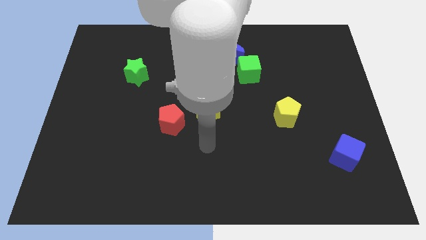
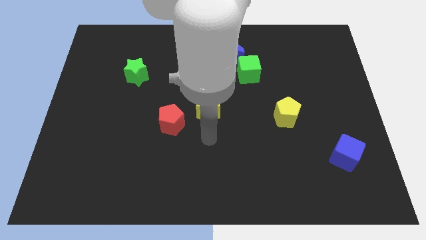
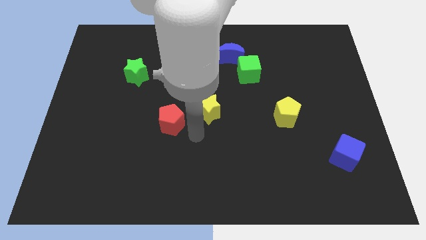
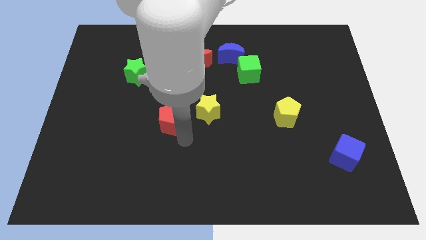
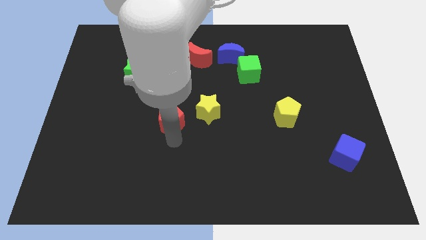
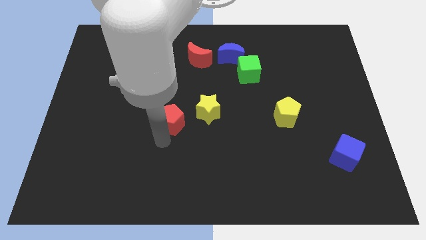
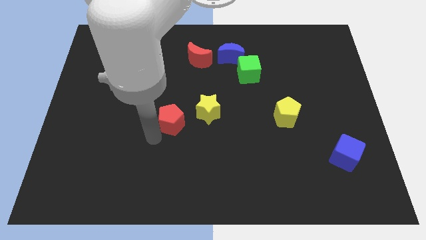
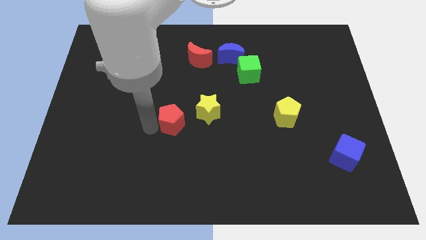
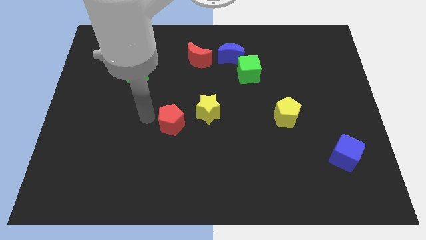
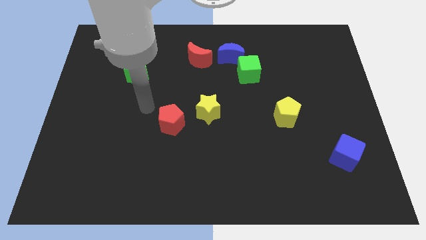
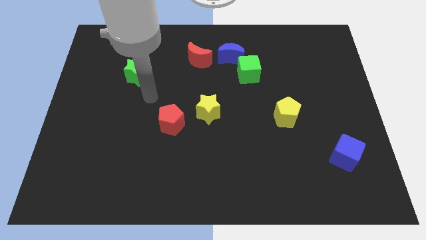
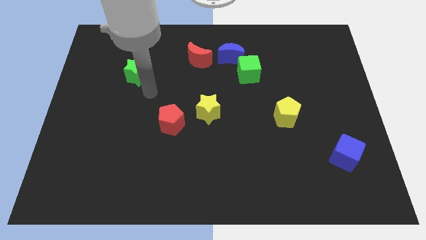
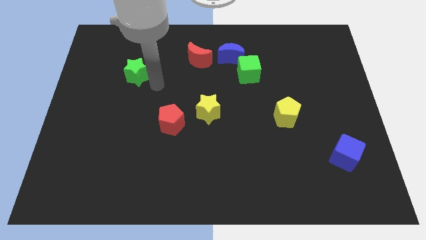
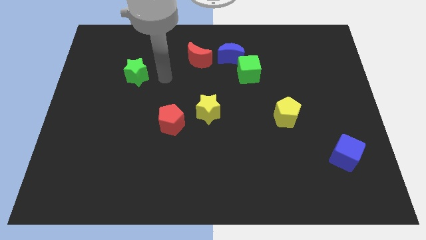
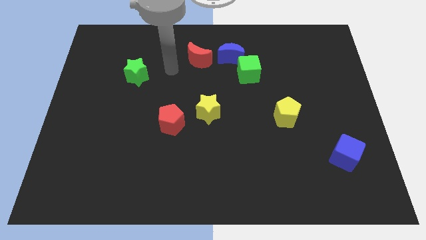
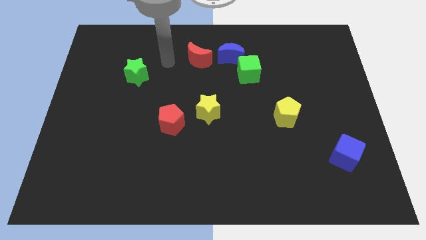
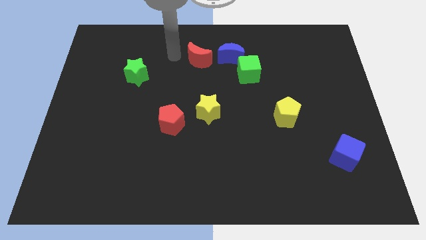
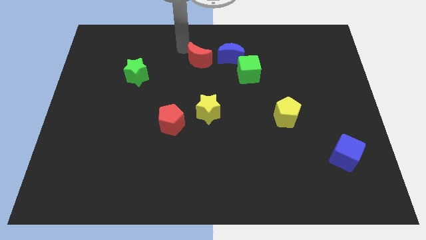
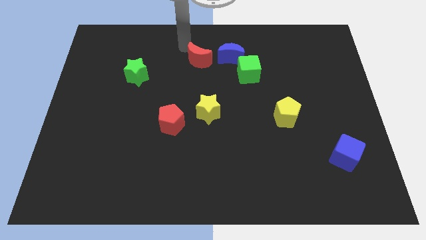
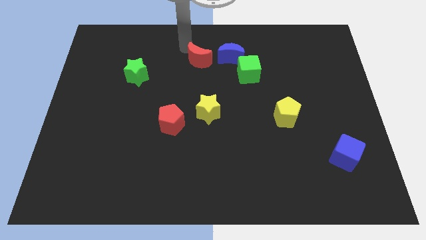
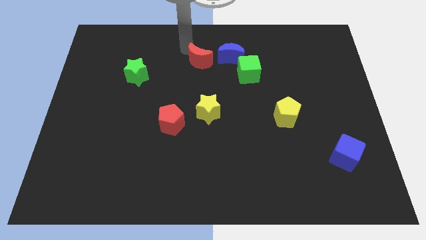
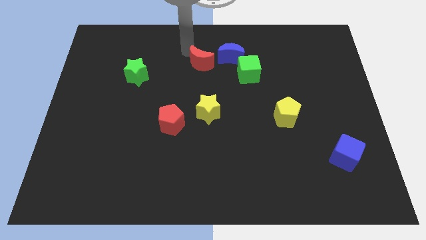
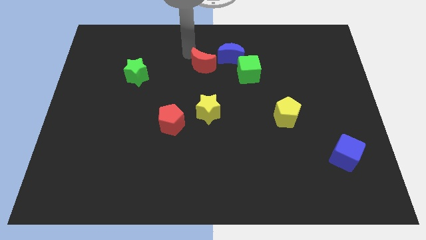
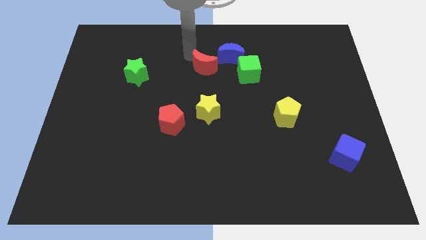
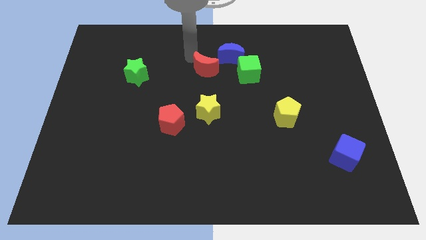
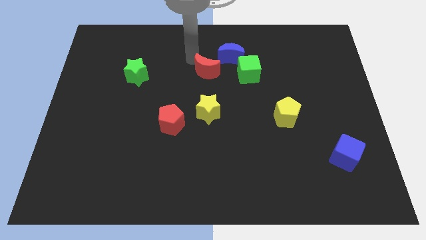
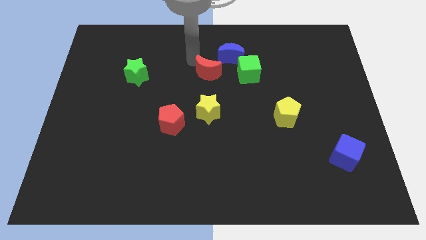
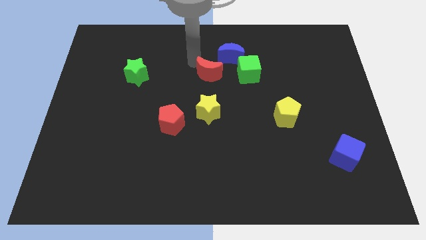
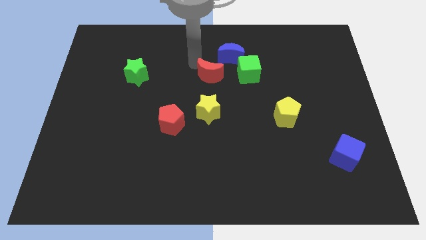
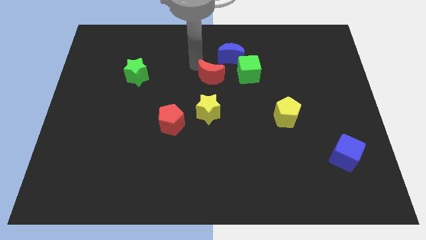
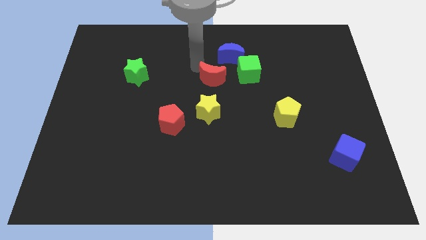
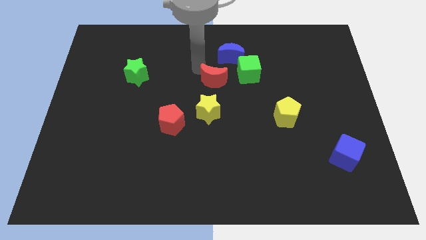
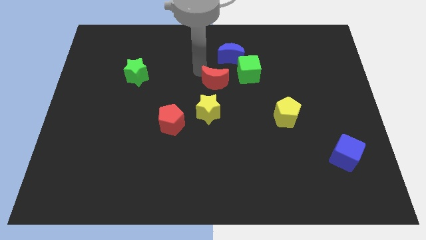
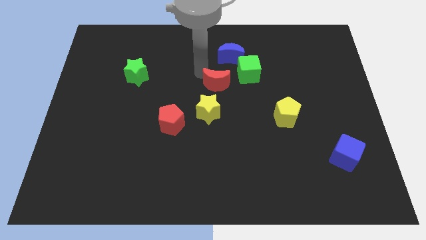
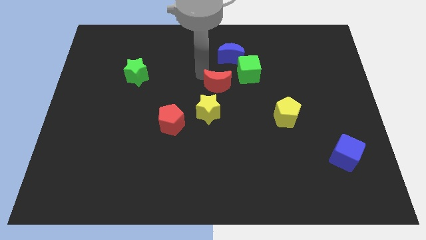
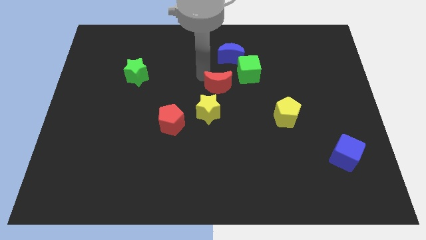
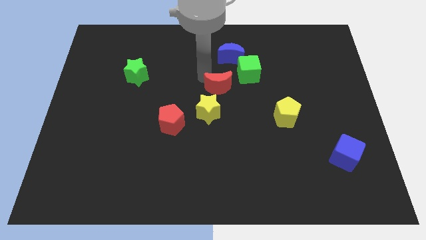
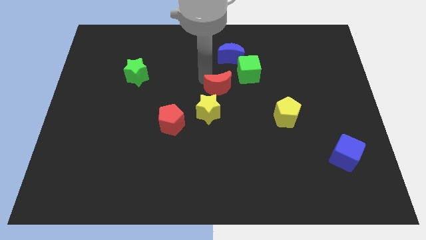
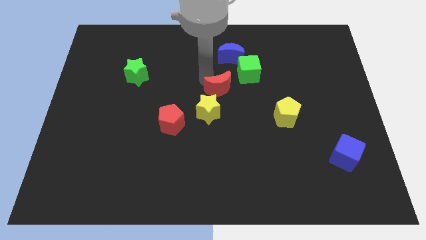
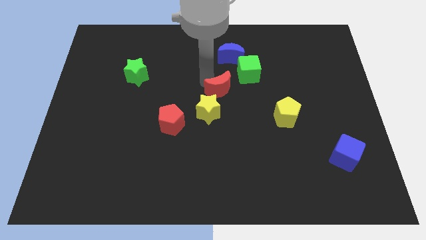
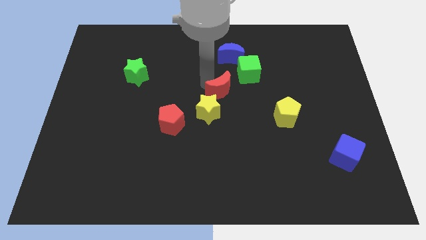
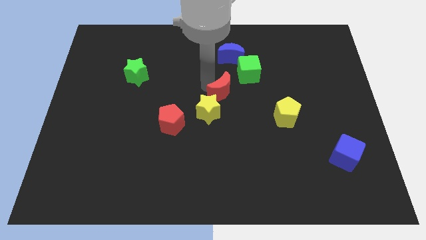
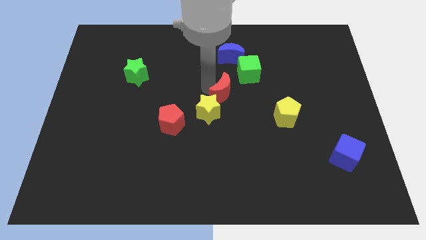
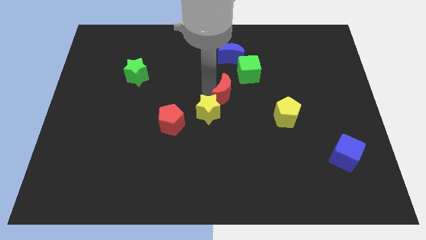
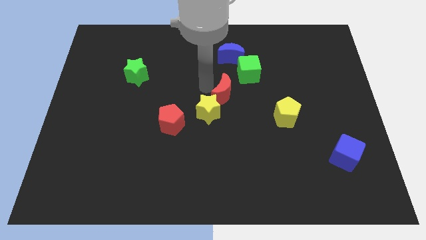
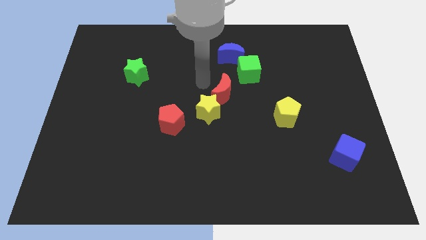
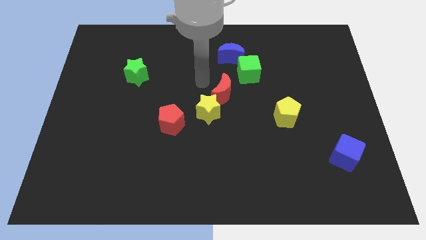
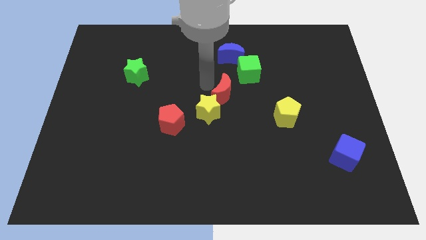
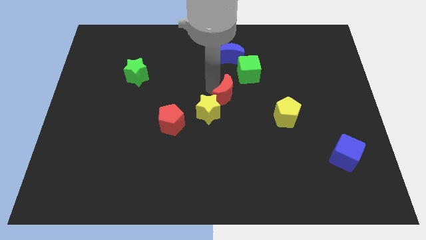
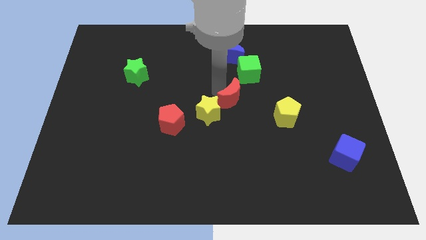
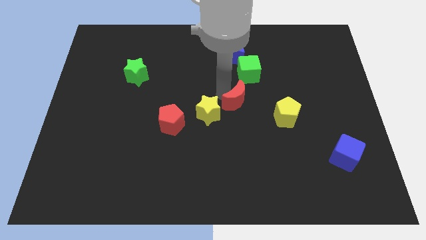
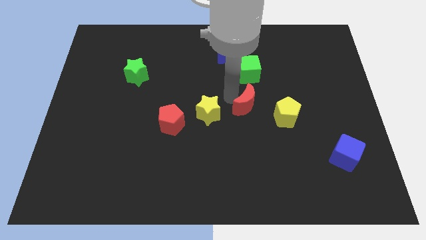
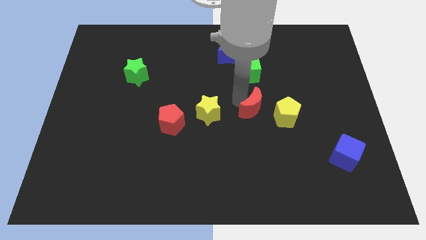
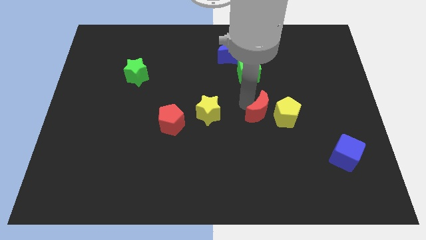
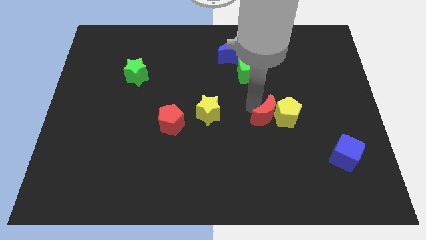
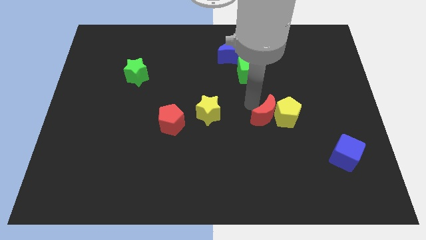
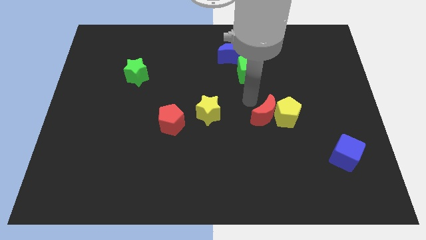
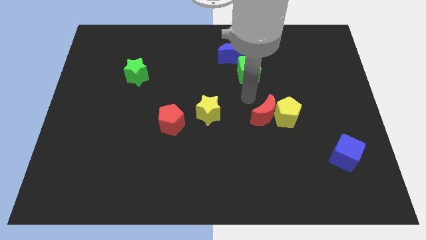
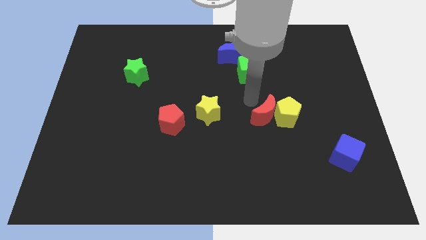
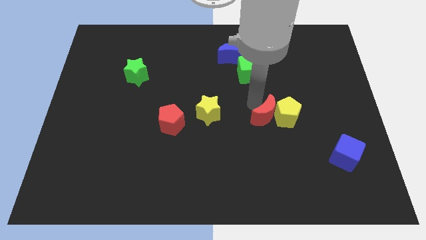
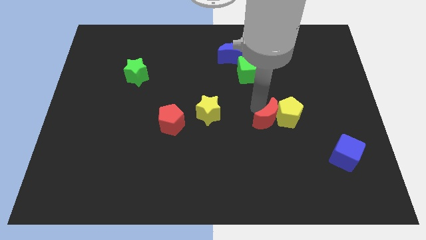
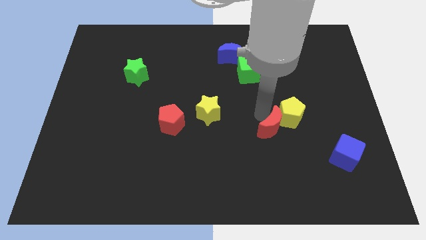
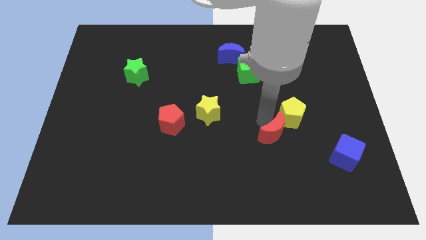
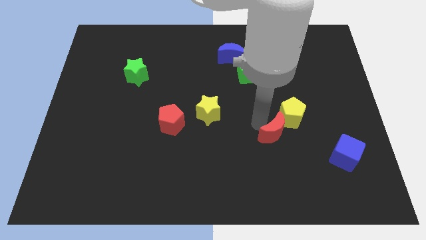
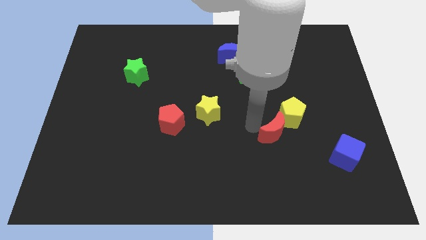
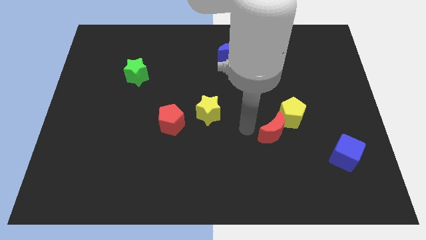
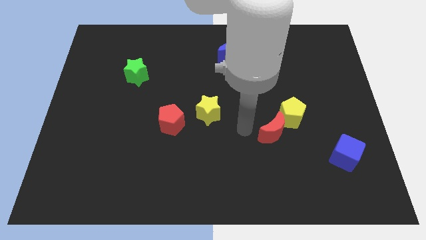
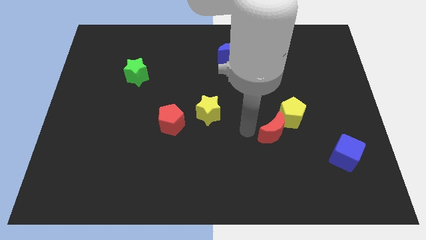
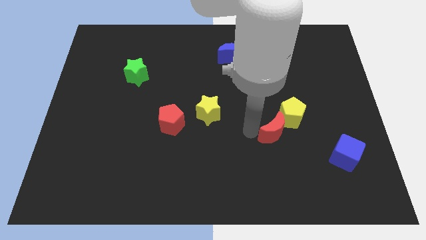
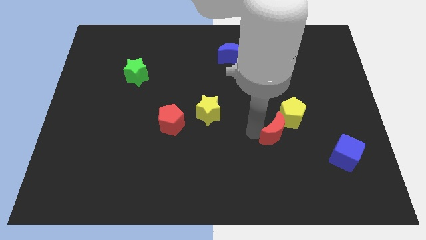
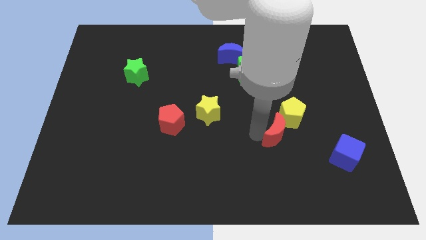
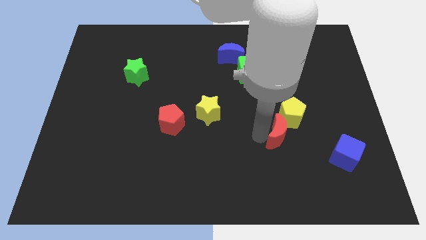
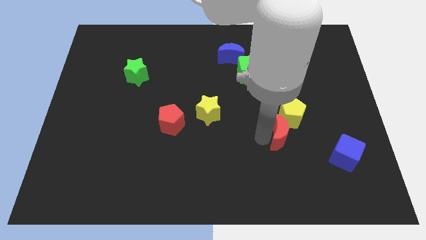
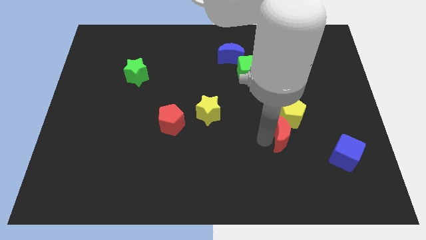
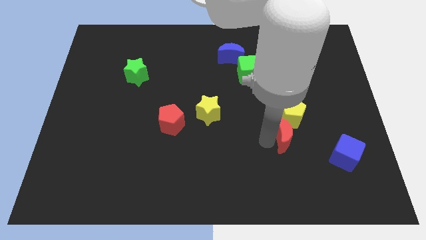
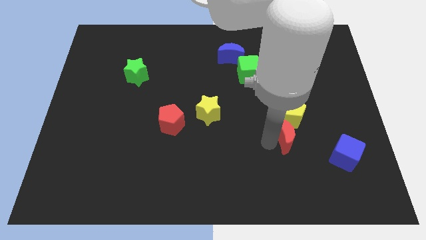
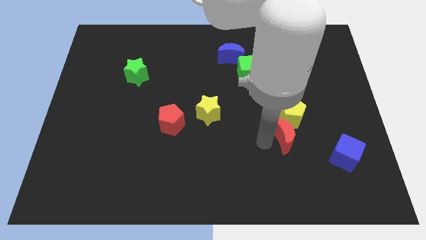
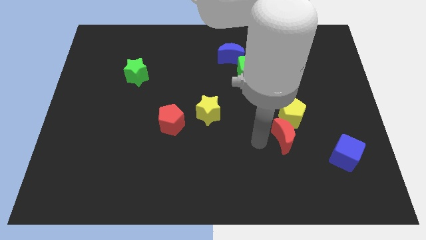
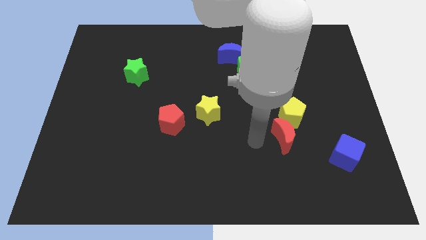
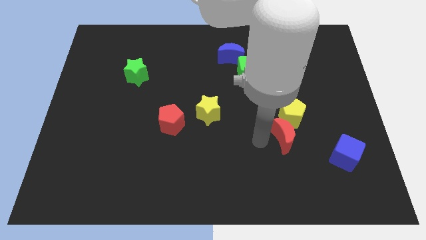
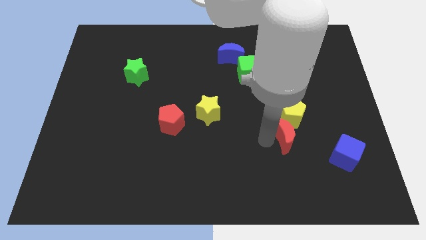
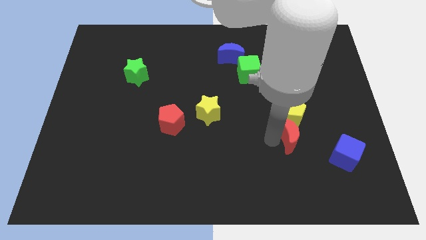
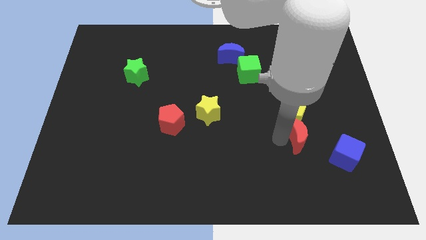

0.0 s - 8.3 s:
put the red moon to the top left side of the blue cube
